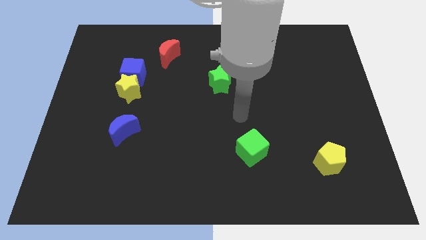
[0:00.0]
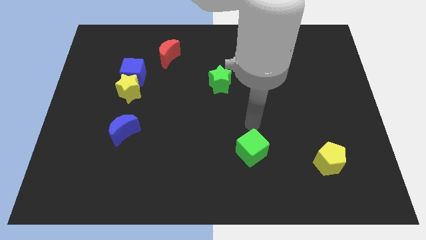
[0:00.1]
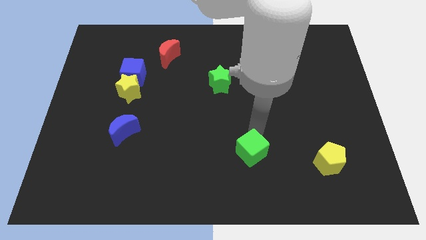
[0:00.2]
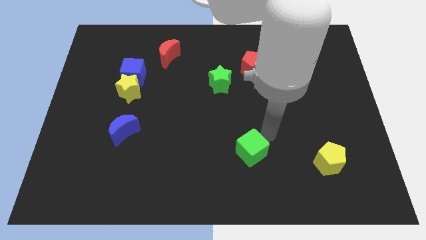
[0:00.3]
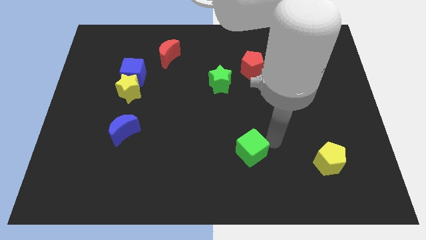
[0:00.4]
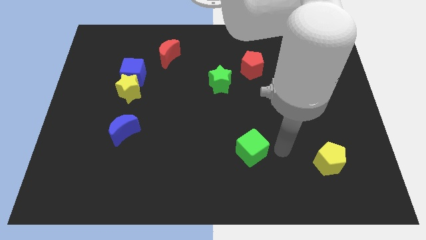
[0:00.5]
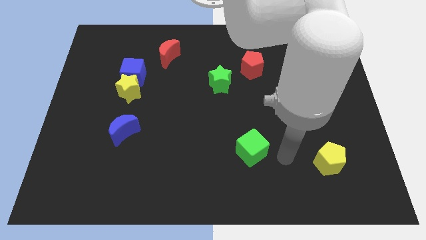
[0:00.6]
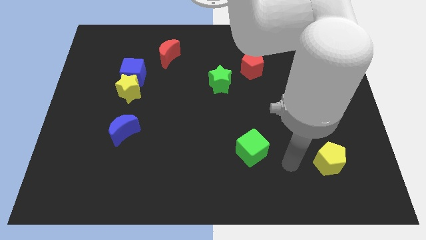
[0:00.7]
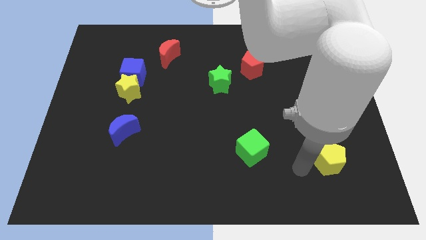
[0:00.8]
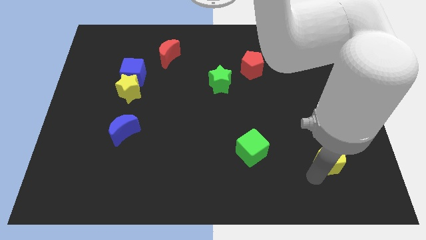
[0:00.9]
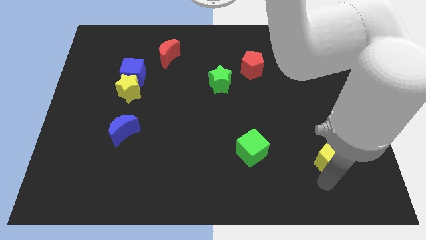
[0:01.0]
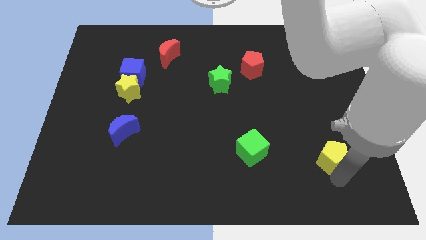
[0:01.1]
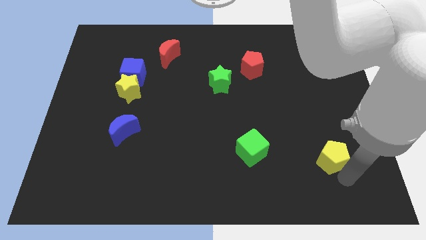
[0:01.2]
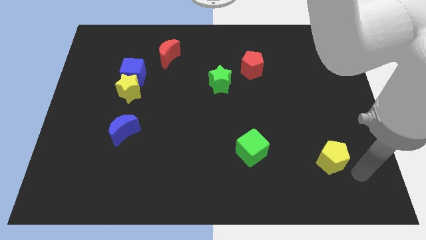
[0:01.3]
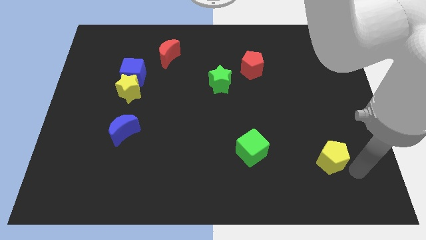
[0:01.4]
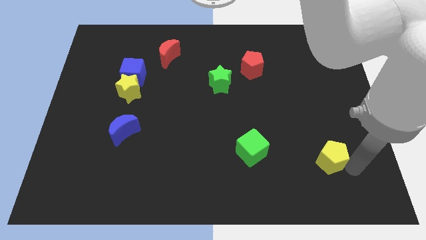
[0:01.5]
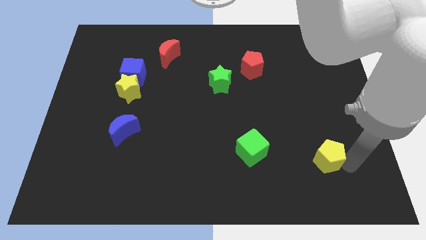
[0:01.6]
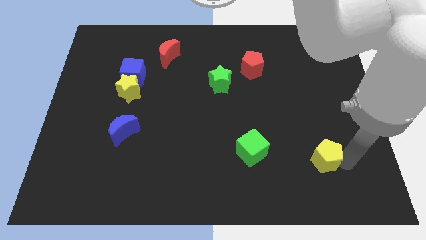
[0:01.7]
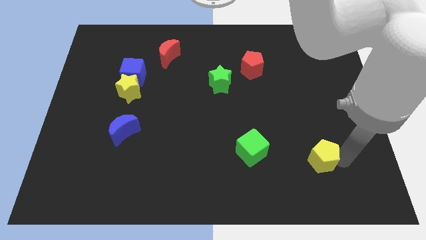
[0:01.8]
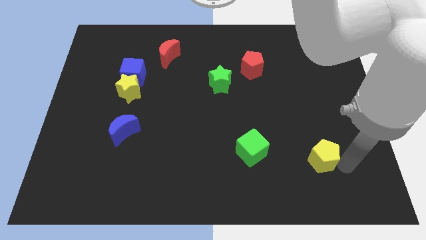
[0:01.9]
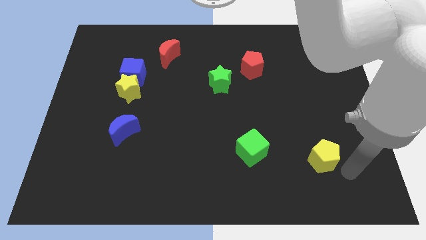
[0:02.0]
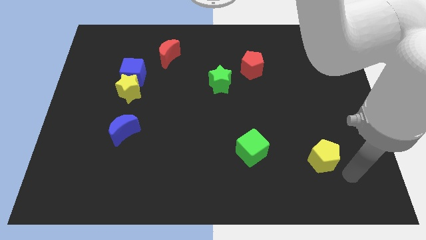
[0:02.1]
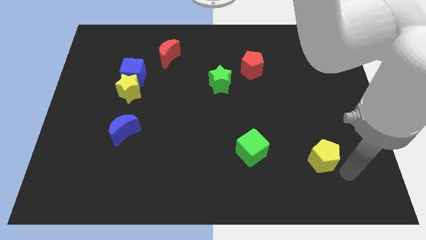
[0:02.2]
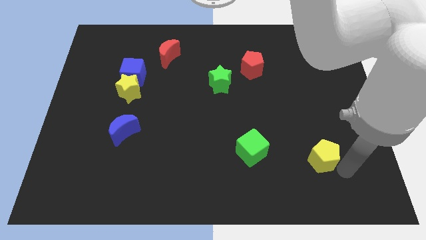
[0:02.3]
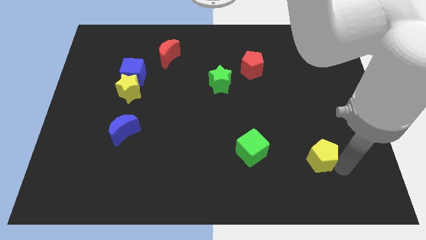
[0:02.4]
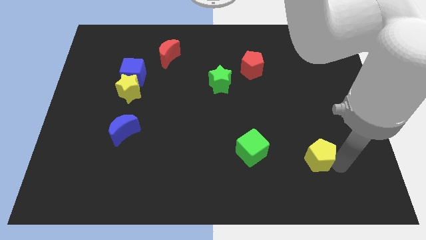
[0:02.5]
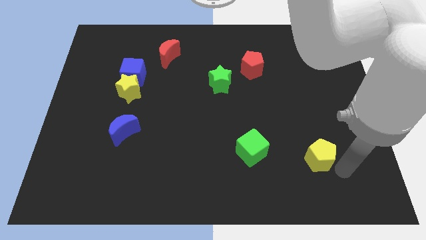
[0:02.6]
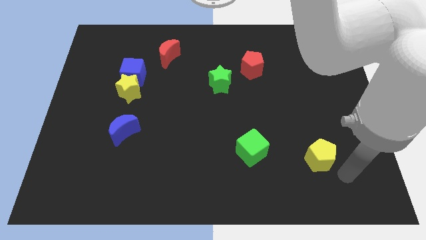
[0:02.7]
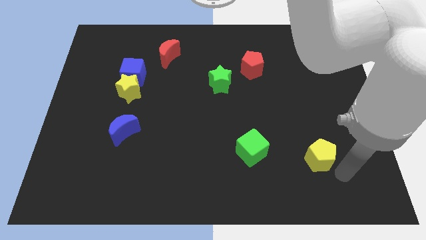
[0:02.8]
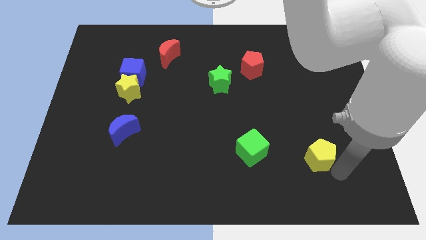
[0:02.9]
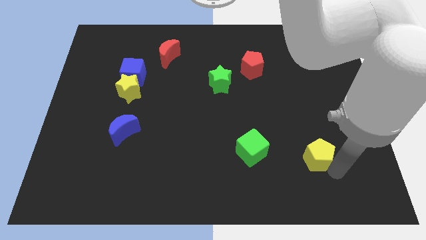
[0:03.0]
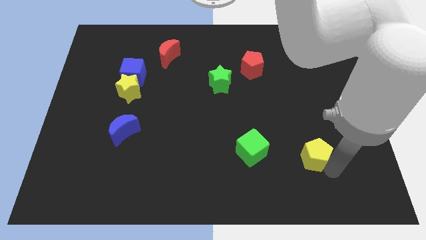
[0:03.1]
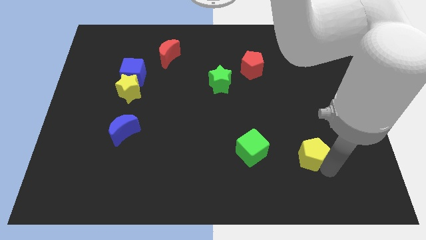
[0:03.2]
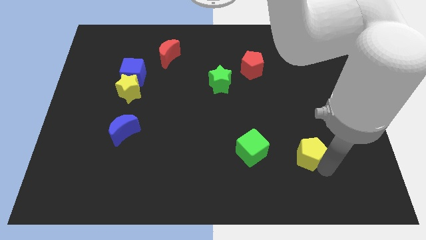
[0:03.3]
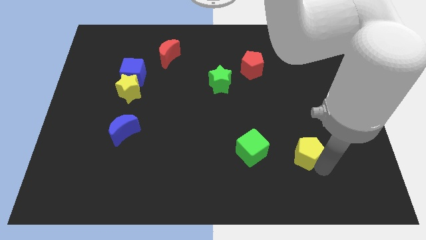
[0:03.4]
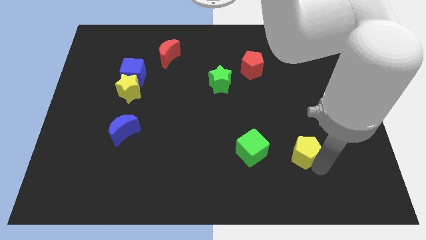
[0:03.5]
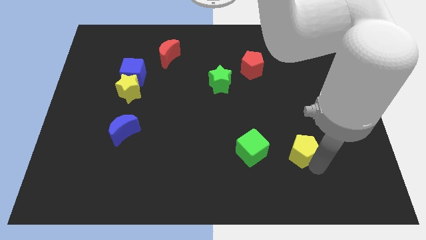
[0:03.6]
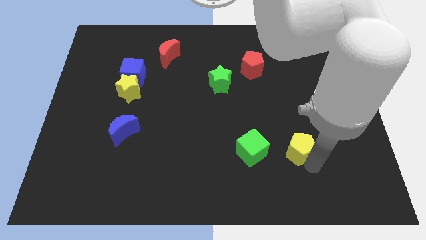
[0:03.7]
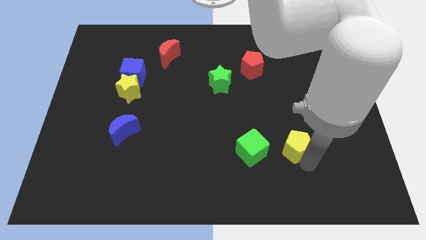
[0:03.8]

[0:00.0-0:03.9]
slightly move the yellow pentagon upwards and to the left diagonally

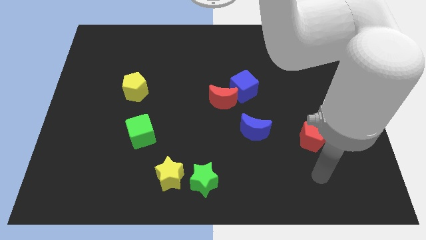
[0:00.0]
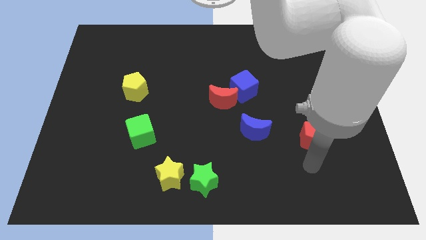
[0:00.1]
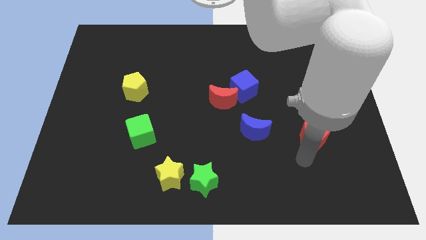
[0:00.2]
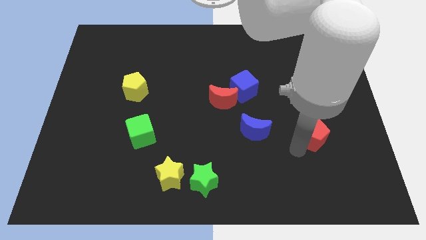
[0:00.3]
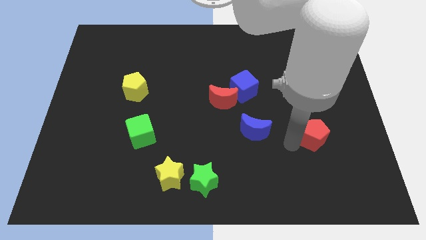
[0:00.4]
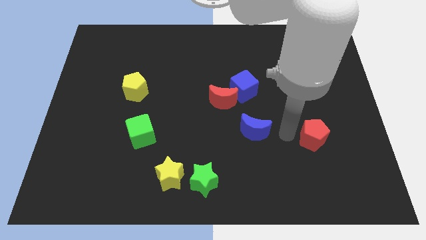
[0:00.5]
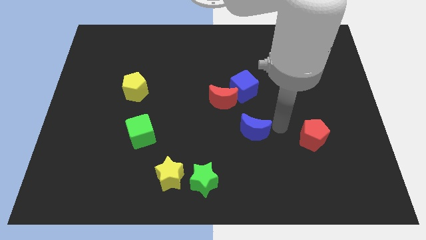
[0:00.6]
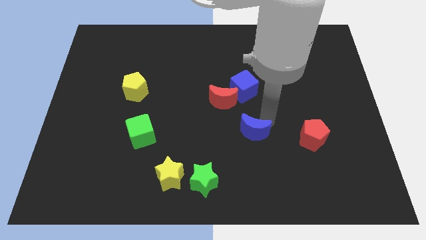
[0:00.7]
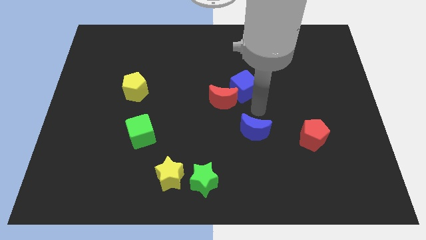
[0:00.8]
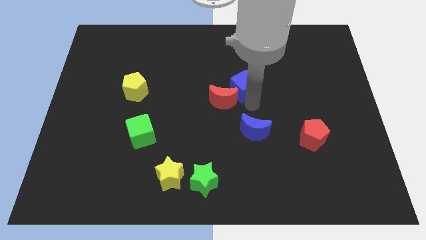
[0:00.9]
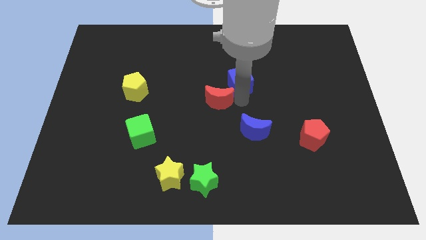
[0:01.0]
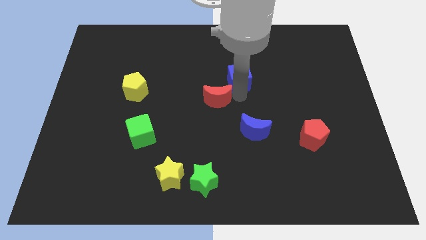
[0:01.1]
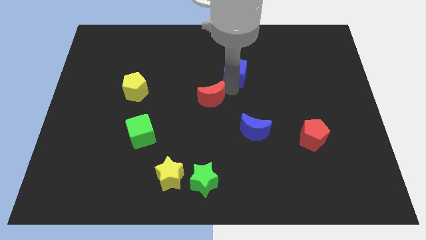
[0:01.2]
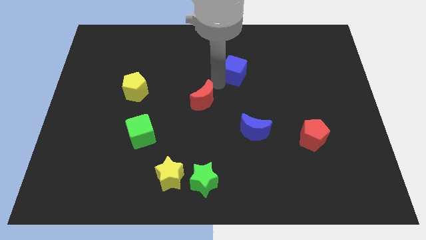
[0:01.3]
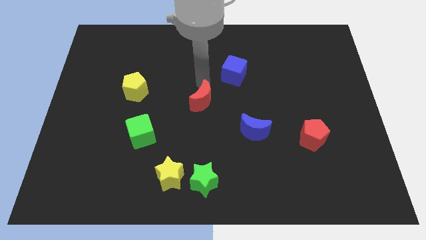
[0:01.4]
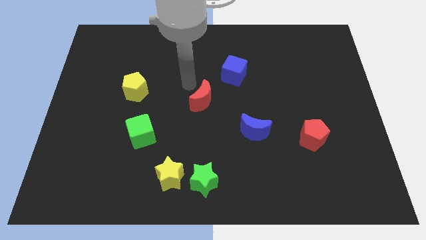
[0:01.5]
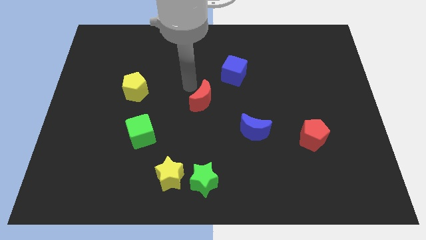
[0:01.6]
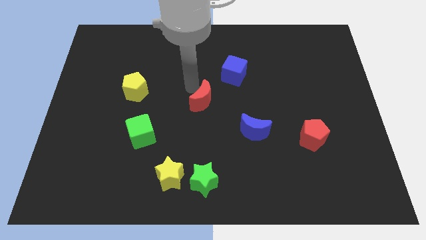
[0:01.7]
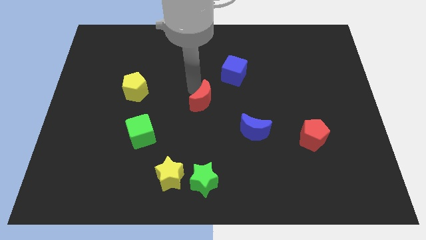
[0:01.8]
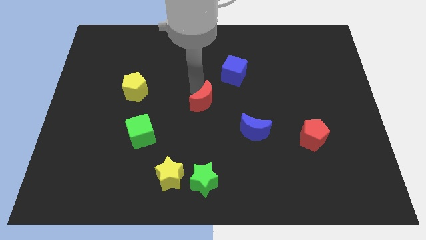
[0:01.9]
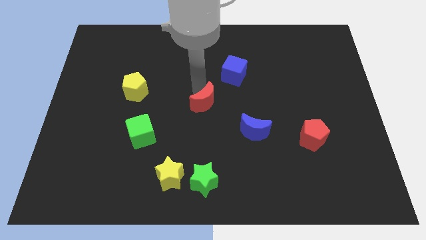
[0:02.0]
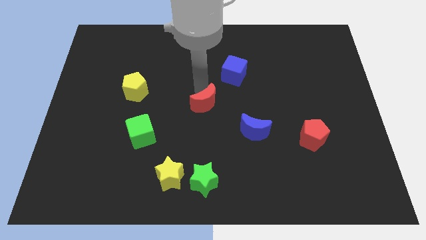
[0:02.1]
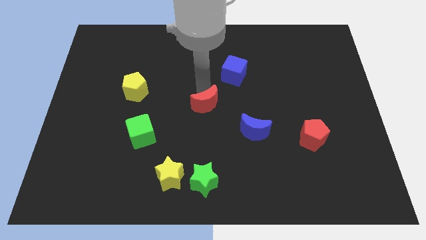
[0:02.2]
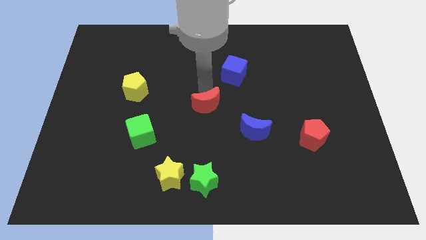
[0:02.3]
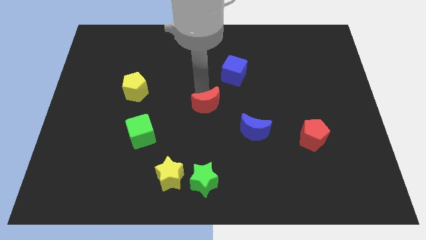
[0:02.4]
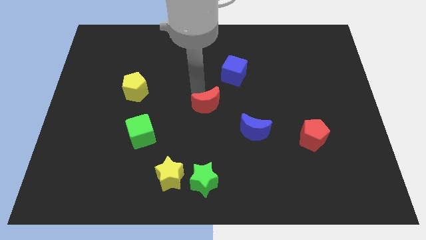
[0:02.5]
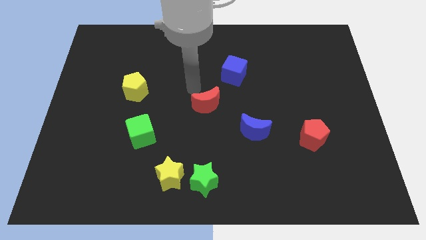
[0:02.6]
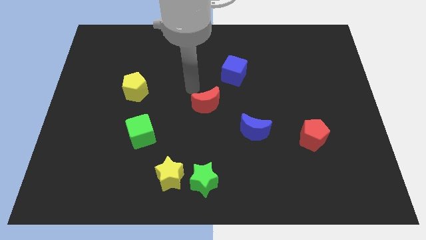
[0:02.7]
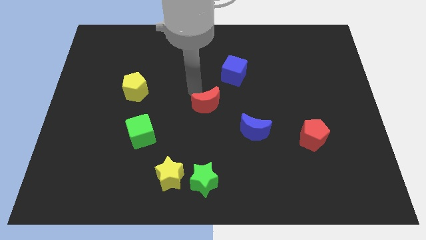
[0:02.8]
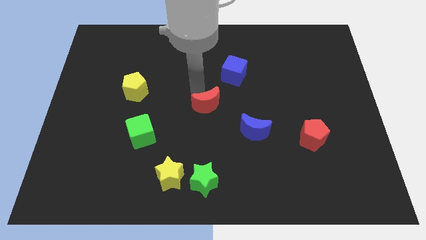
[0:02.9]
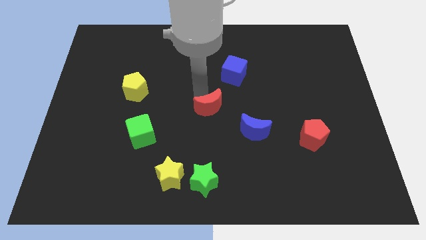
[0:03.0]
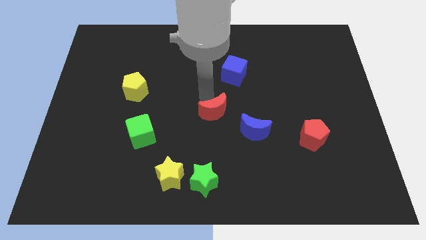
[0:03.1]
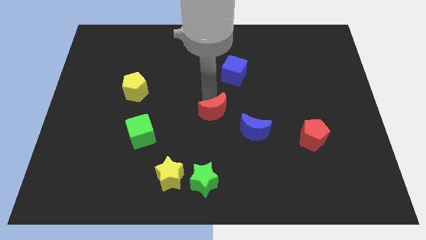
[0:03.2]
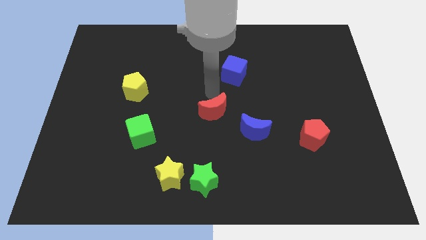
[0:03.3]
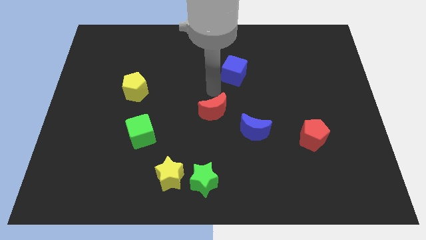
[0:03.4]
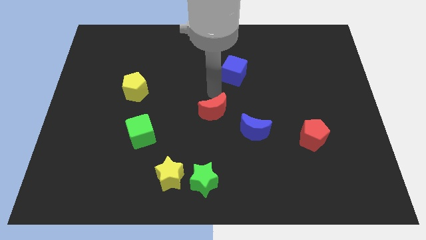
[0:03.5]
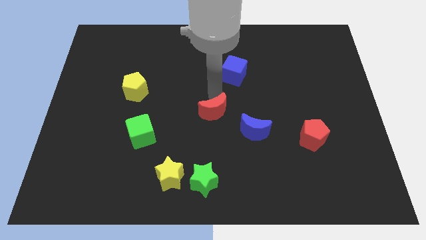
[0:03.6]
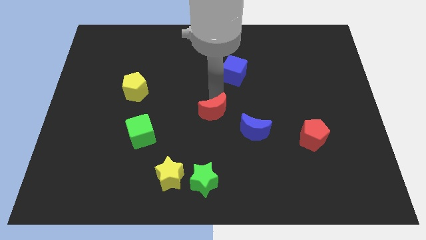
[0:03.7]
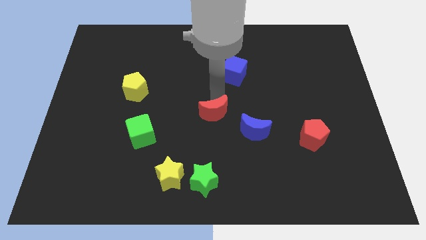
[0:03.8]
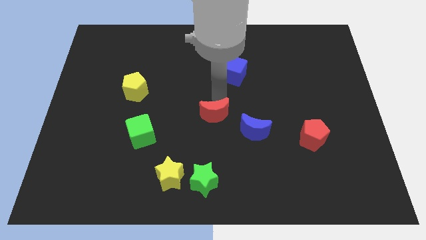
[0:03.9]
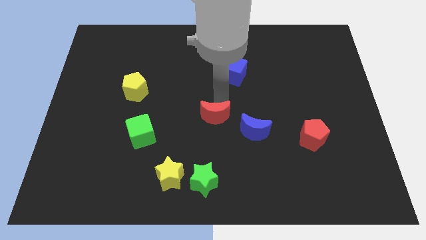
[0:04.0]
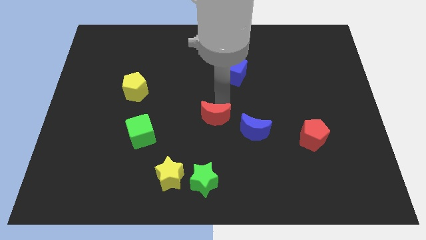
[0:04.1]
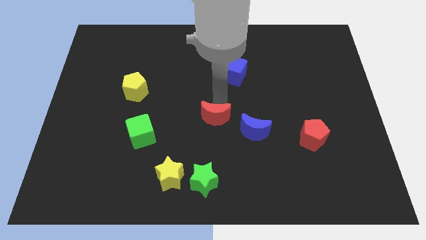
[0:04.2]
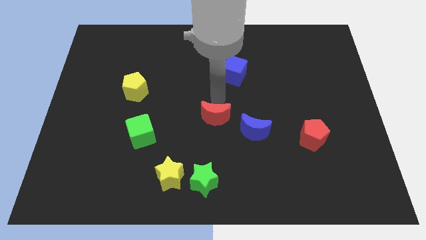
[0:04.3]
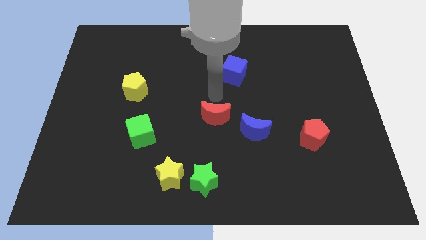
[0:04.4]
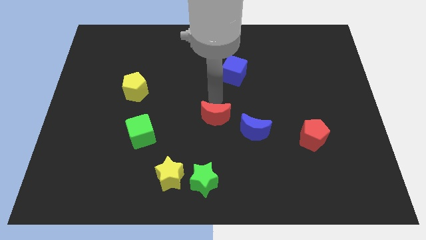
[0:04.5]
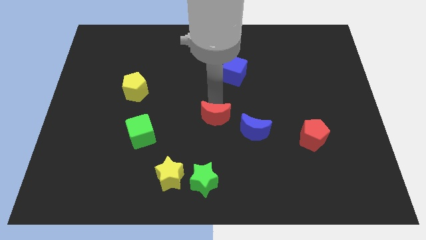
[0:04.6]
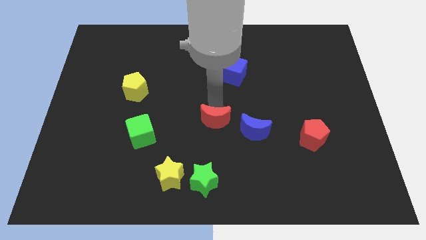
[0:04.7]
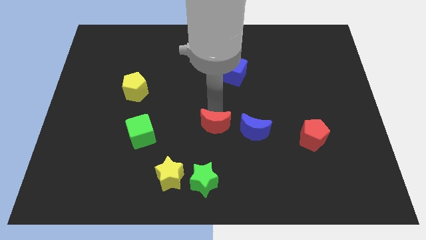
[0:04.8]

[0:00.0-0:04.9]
slightly move the red moon downwards
